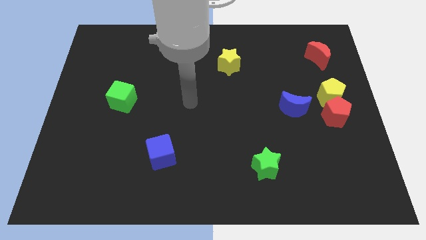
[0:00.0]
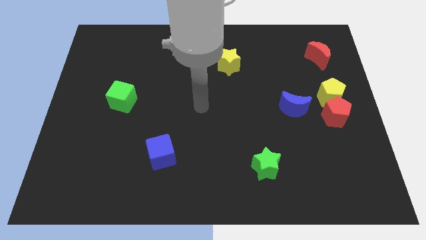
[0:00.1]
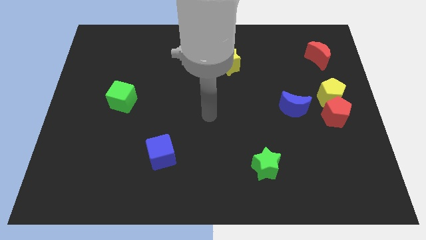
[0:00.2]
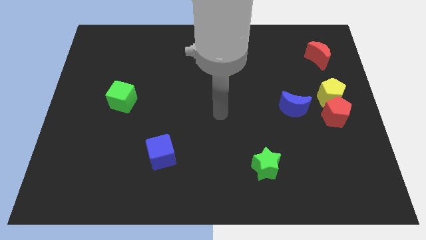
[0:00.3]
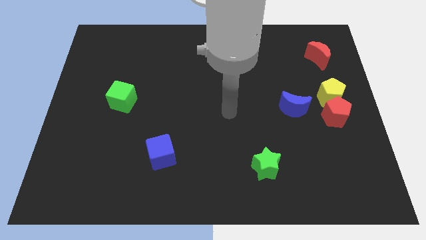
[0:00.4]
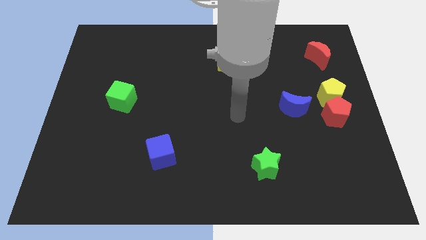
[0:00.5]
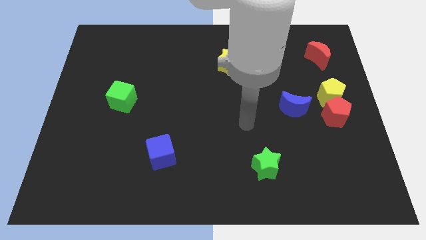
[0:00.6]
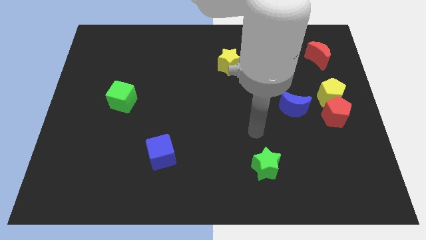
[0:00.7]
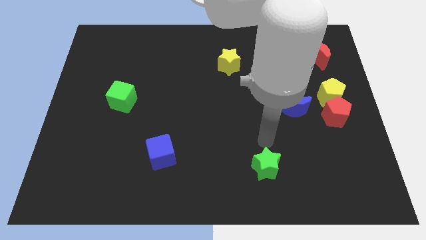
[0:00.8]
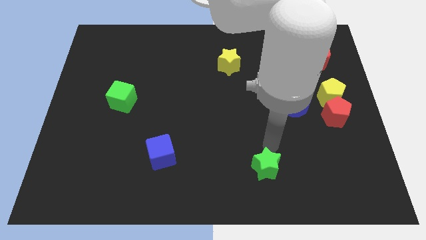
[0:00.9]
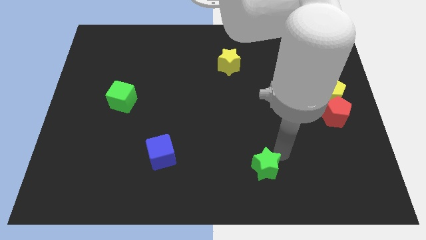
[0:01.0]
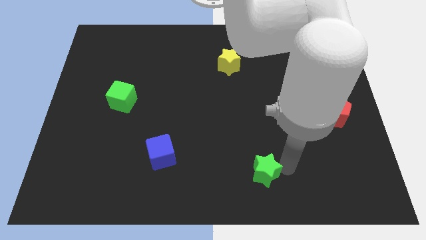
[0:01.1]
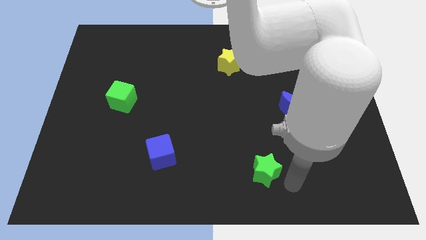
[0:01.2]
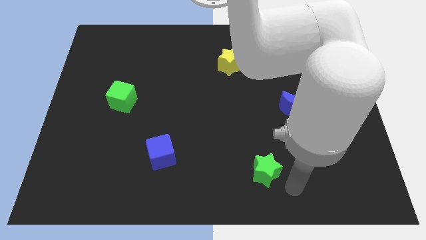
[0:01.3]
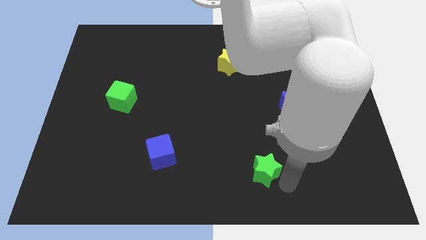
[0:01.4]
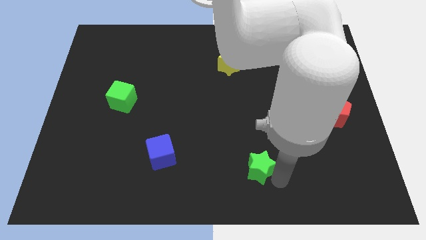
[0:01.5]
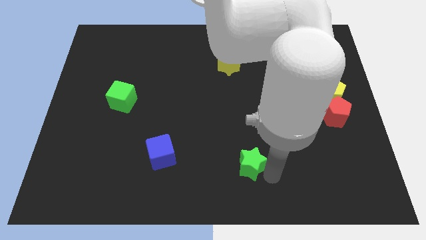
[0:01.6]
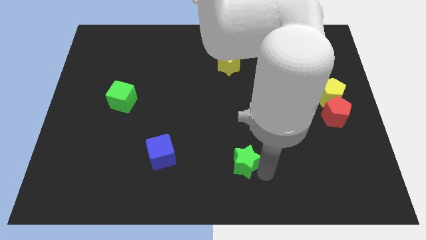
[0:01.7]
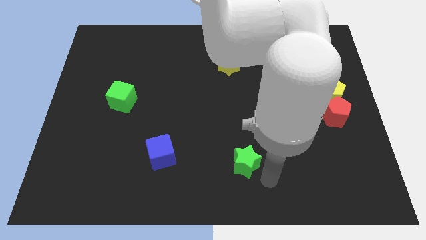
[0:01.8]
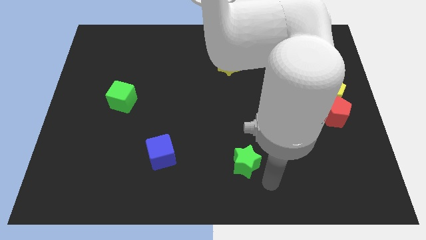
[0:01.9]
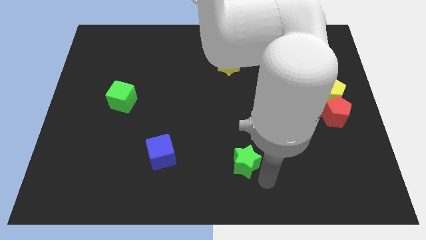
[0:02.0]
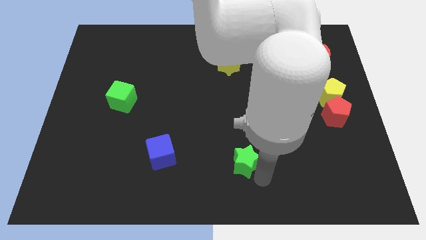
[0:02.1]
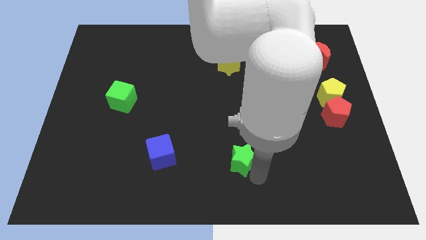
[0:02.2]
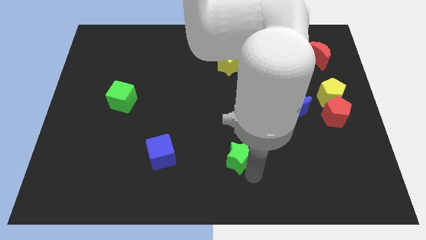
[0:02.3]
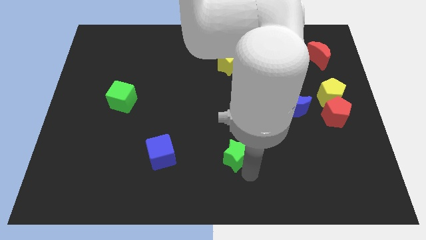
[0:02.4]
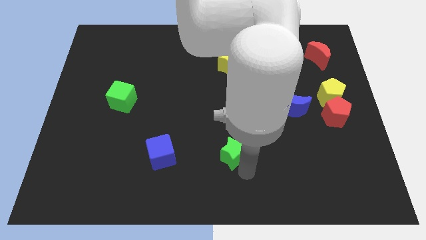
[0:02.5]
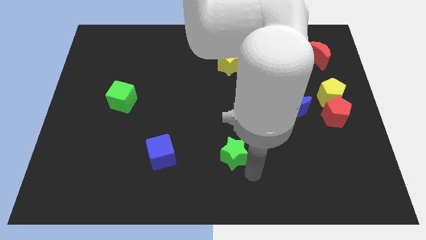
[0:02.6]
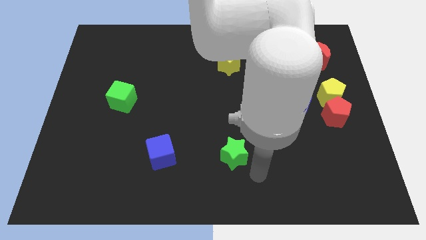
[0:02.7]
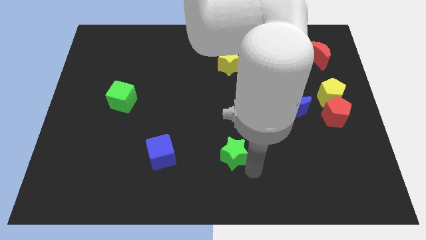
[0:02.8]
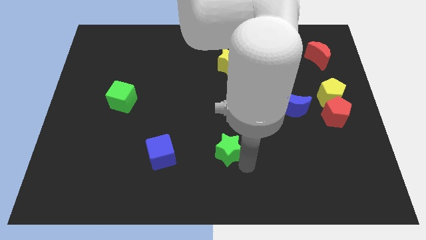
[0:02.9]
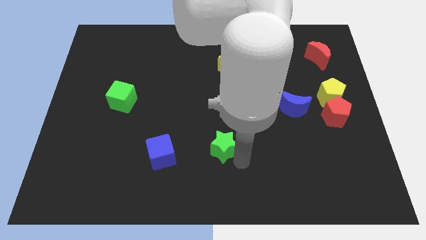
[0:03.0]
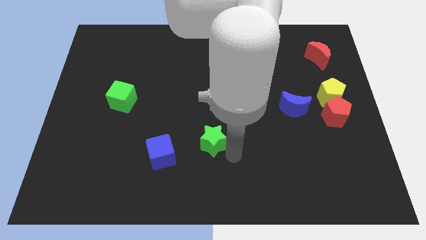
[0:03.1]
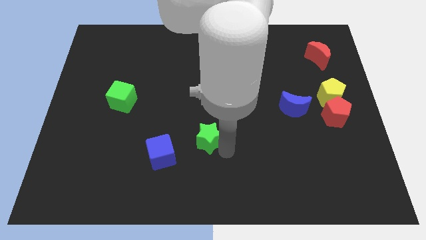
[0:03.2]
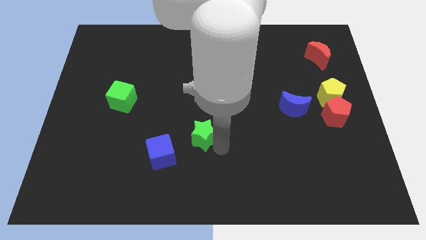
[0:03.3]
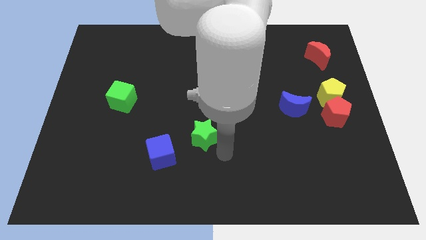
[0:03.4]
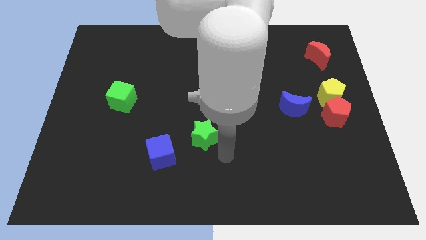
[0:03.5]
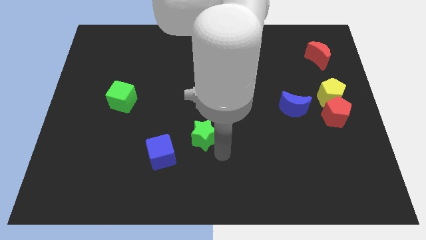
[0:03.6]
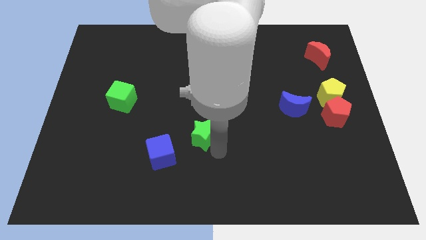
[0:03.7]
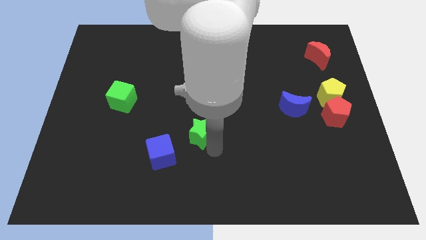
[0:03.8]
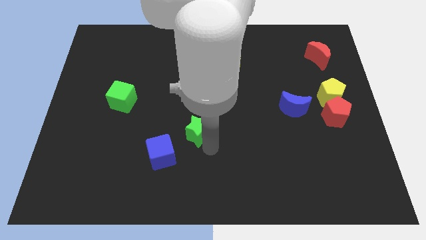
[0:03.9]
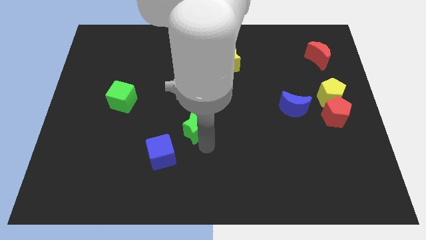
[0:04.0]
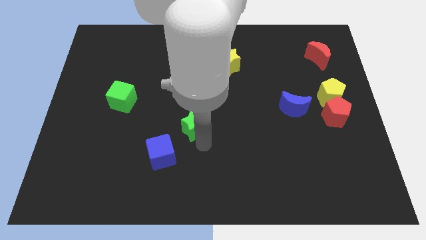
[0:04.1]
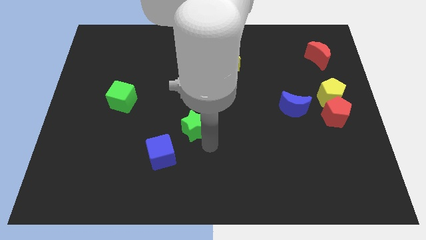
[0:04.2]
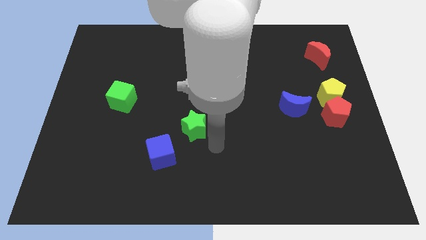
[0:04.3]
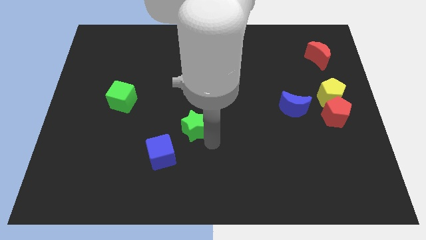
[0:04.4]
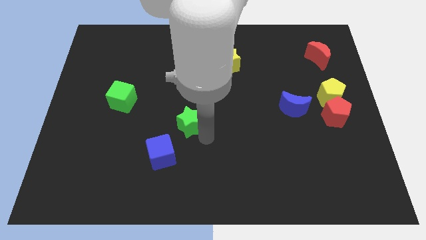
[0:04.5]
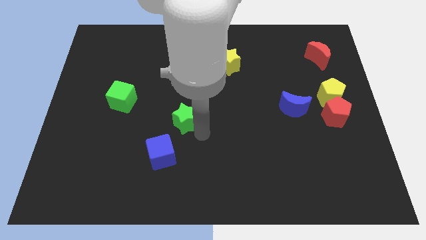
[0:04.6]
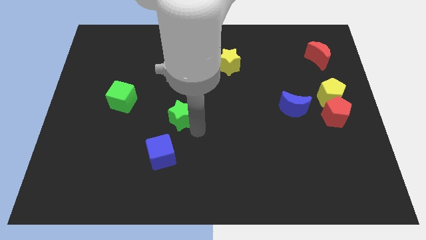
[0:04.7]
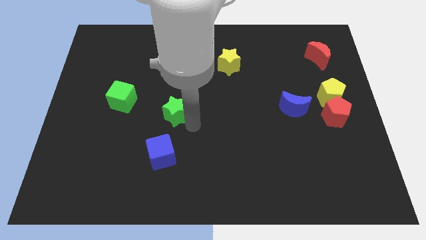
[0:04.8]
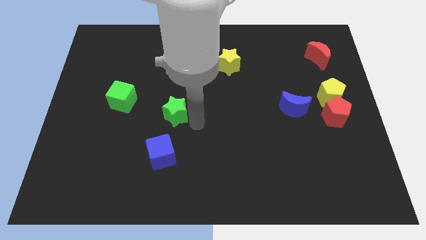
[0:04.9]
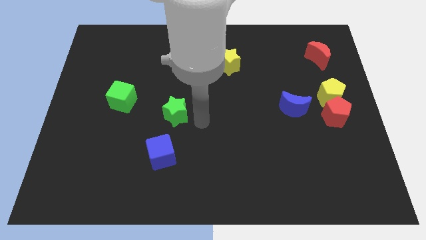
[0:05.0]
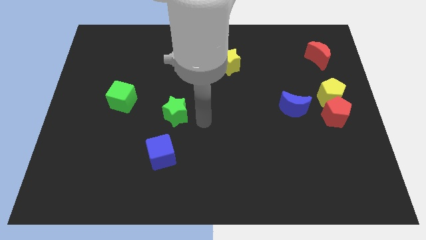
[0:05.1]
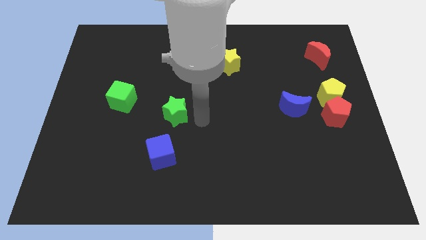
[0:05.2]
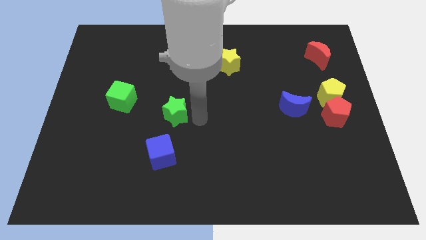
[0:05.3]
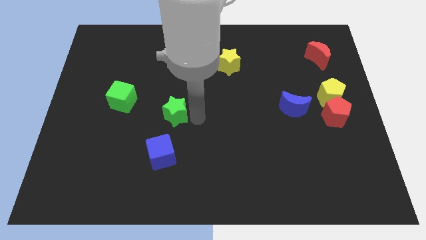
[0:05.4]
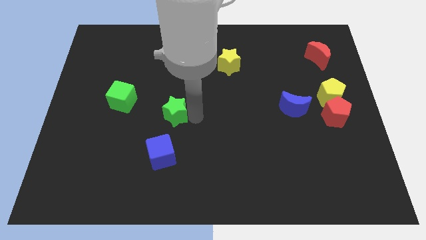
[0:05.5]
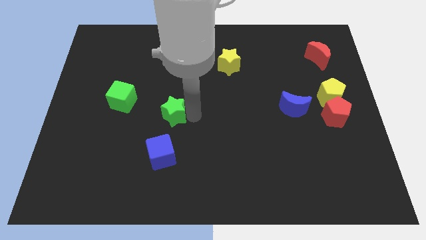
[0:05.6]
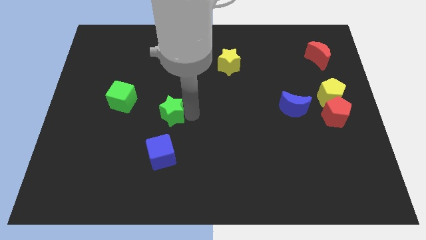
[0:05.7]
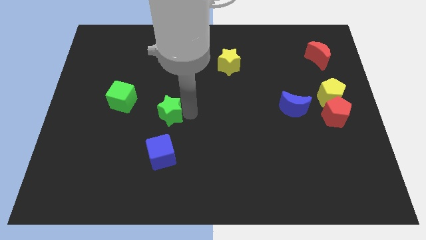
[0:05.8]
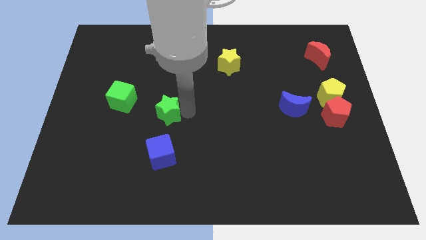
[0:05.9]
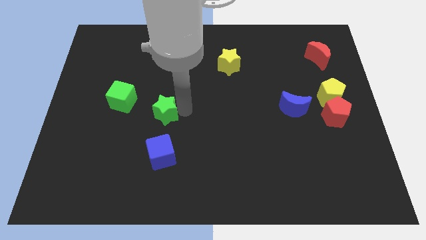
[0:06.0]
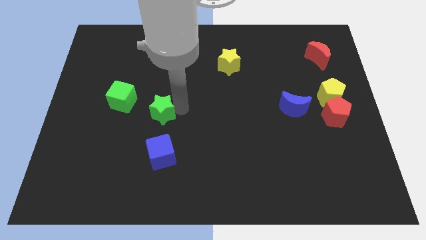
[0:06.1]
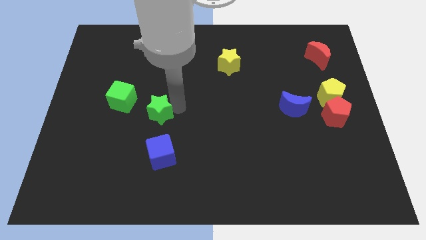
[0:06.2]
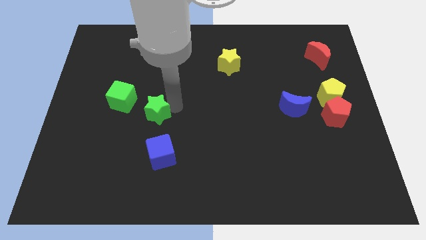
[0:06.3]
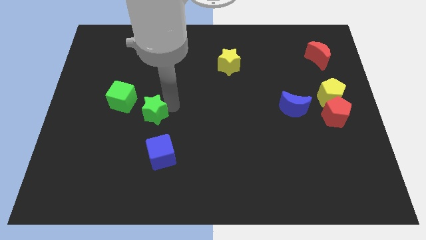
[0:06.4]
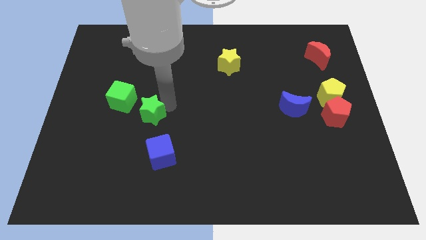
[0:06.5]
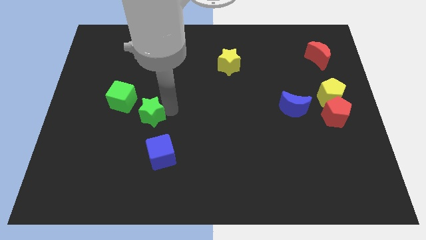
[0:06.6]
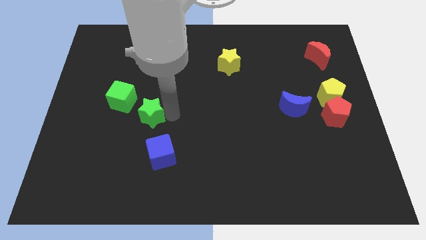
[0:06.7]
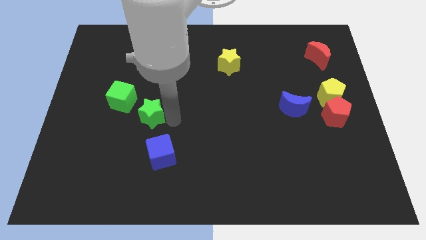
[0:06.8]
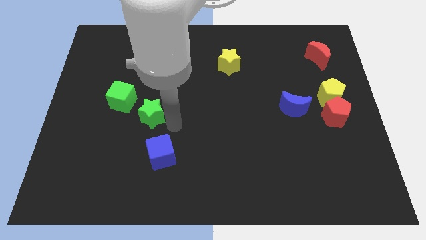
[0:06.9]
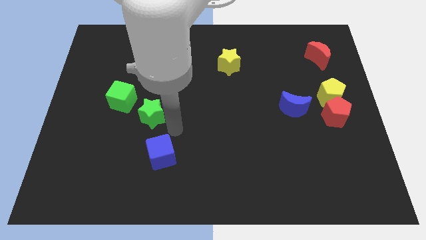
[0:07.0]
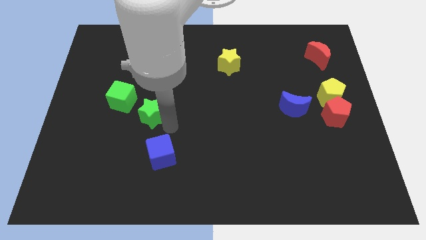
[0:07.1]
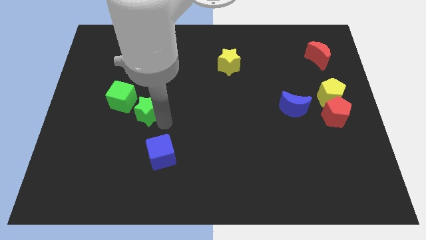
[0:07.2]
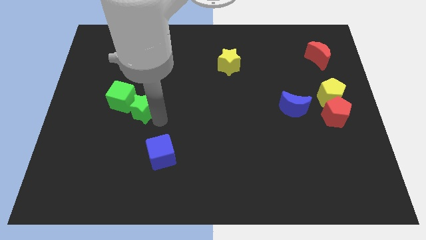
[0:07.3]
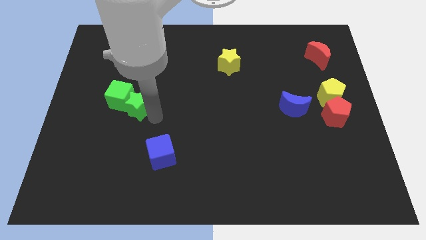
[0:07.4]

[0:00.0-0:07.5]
put the green star next to the green cube
